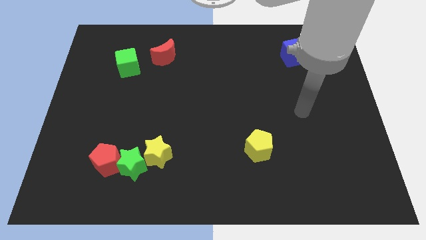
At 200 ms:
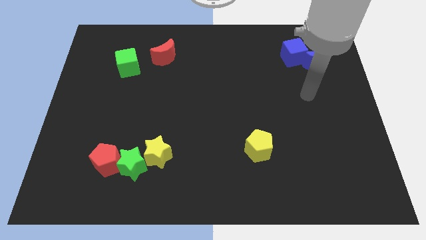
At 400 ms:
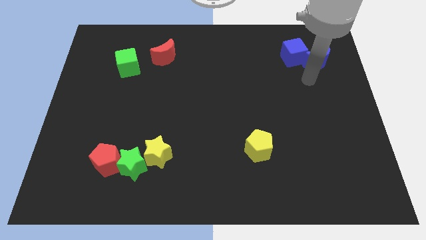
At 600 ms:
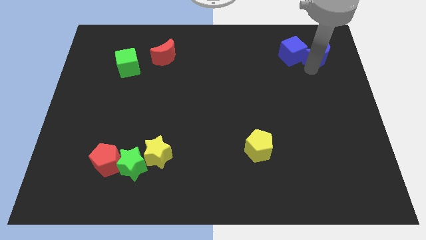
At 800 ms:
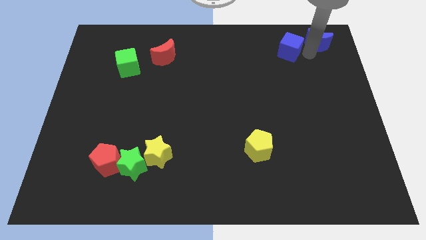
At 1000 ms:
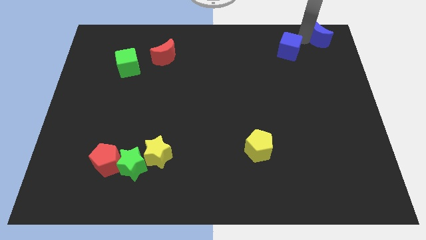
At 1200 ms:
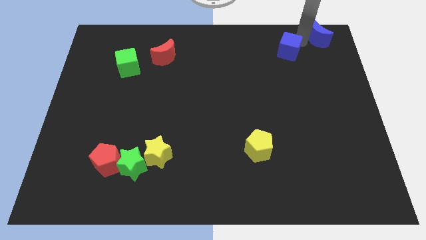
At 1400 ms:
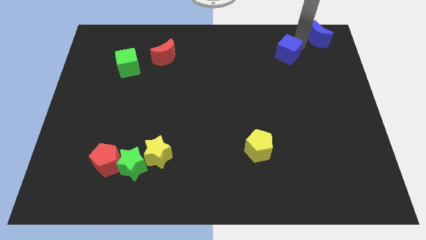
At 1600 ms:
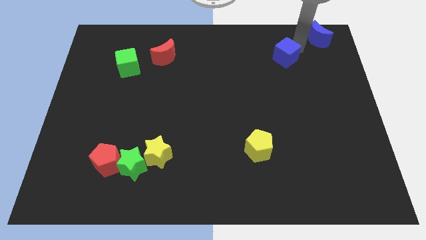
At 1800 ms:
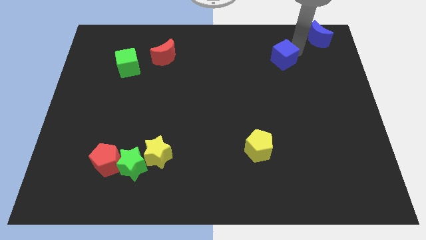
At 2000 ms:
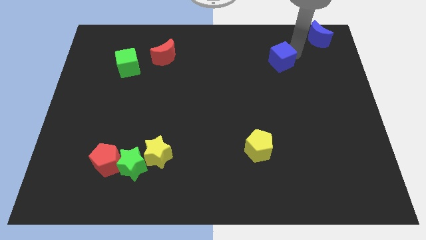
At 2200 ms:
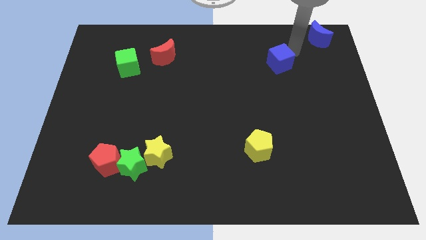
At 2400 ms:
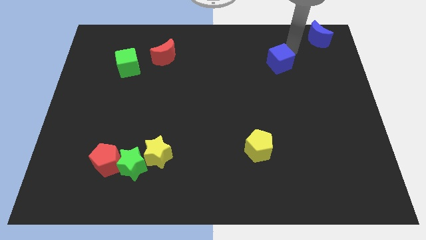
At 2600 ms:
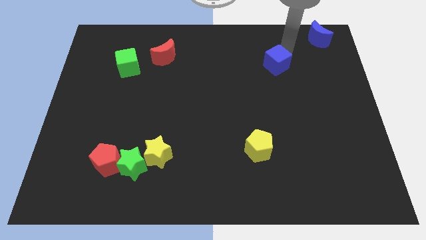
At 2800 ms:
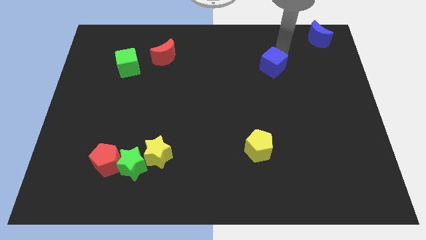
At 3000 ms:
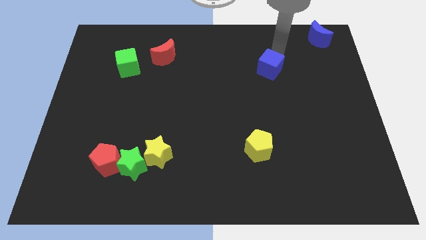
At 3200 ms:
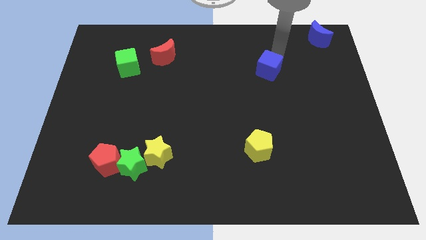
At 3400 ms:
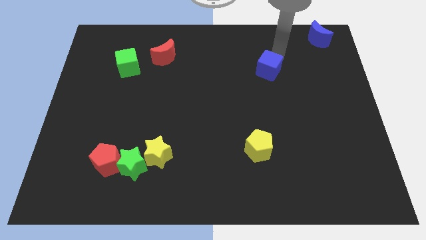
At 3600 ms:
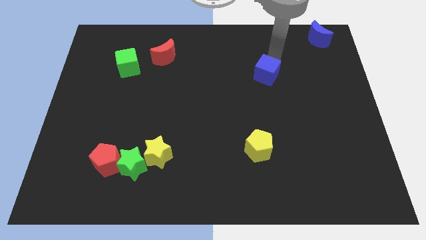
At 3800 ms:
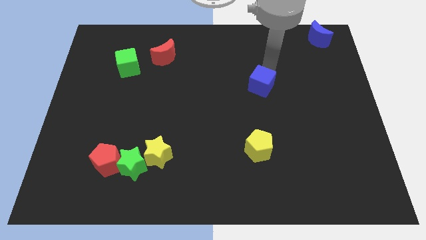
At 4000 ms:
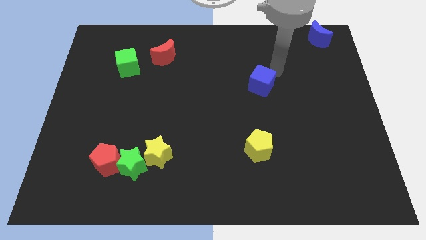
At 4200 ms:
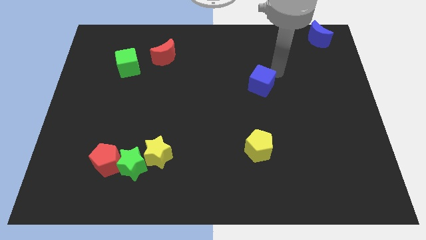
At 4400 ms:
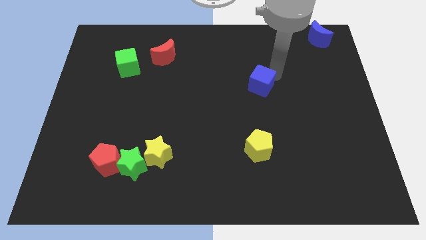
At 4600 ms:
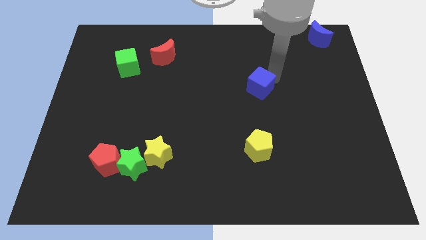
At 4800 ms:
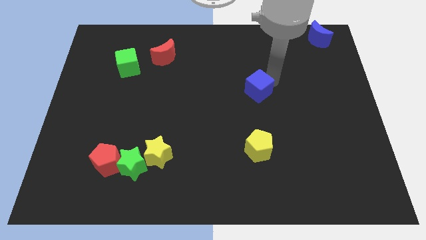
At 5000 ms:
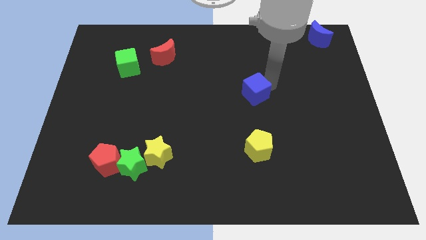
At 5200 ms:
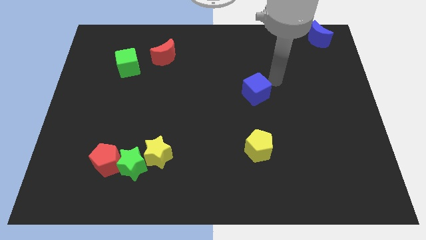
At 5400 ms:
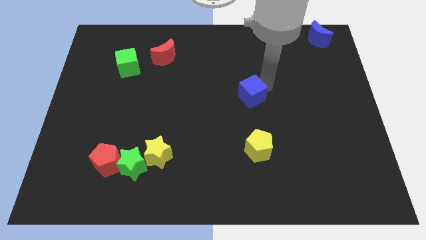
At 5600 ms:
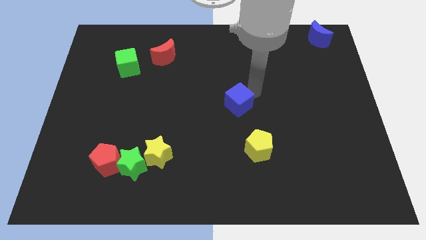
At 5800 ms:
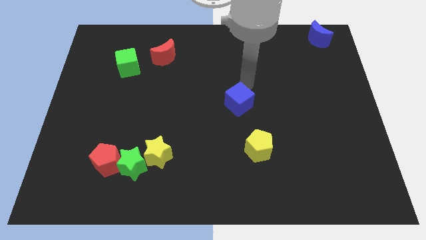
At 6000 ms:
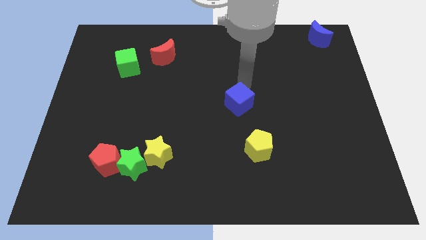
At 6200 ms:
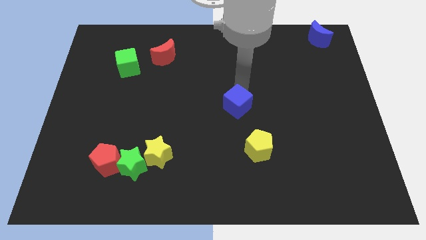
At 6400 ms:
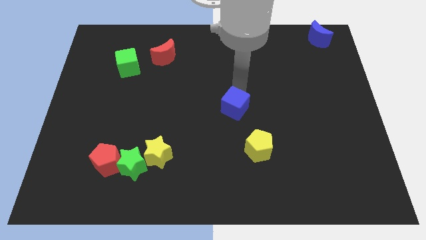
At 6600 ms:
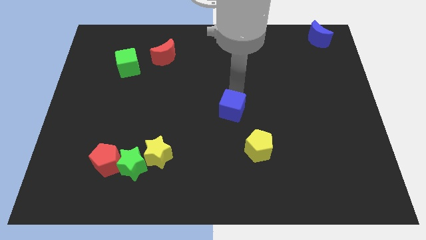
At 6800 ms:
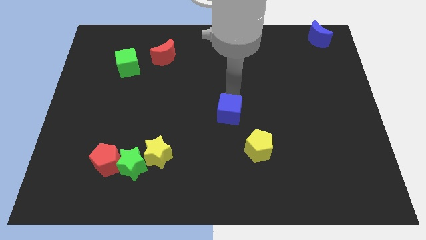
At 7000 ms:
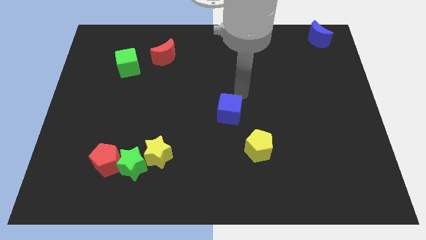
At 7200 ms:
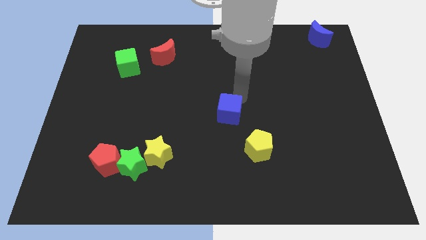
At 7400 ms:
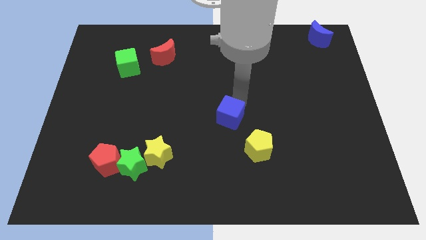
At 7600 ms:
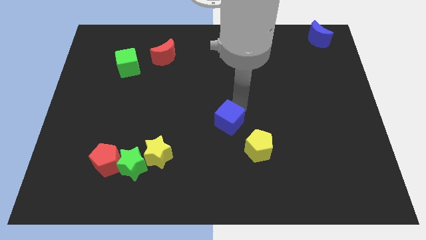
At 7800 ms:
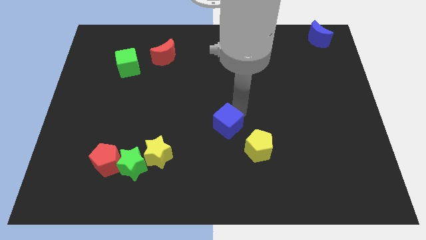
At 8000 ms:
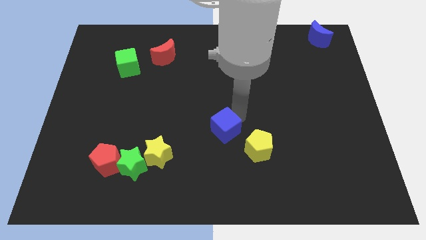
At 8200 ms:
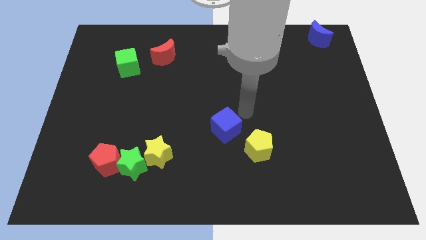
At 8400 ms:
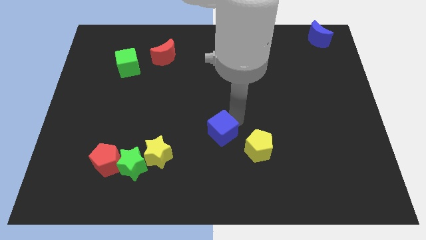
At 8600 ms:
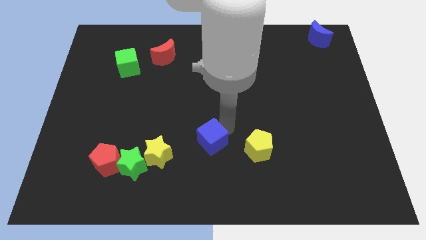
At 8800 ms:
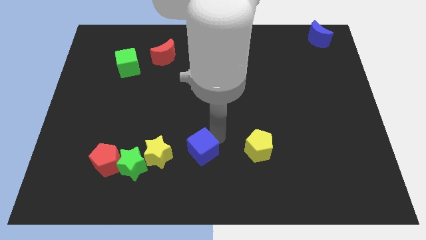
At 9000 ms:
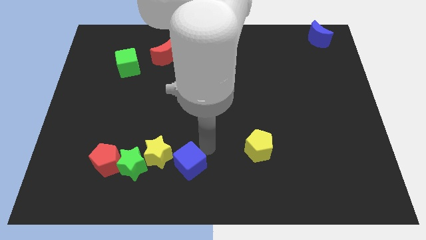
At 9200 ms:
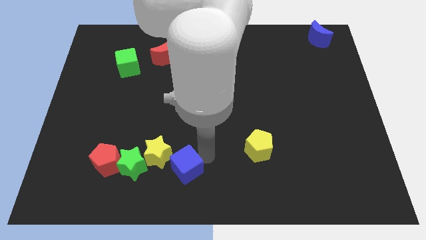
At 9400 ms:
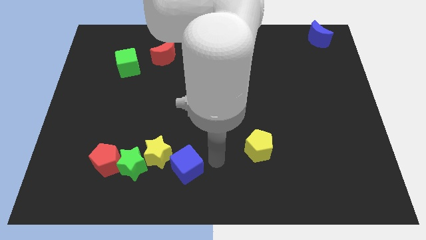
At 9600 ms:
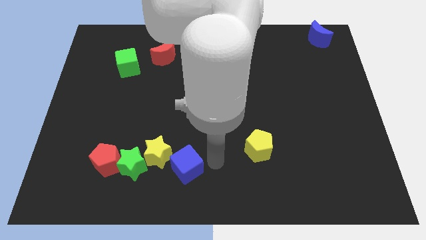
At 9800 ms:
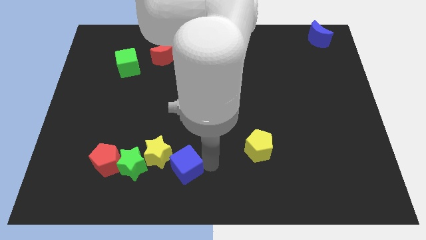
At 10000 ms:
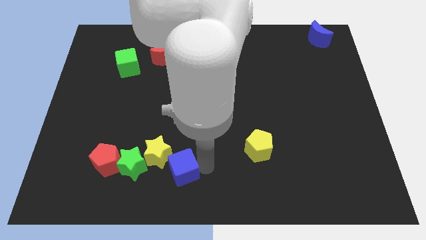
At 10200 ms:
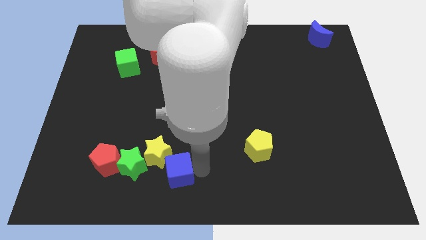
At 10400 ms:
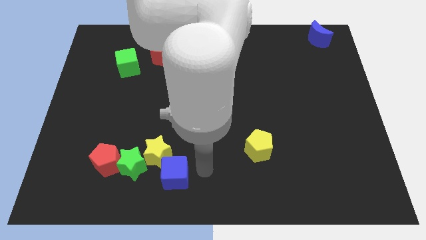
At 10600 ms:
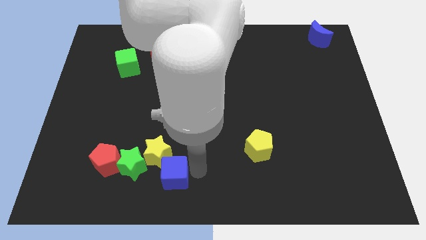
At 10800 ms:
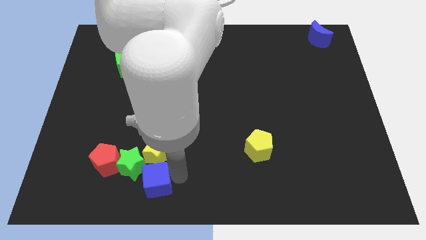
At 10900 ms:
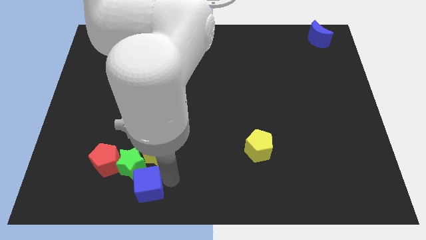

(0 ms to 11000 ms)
move the blue cube diagonally down and to the right of the red pentagon

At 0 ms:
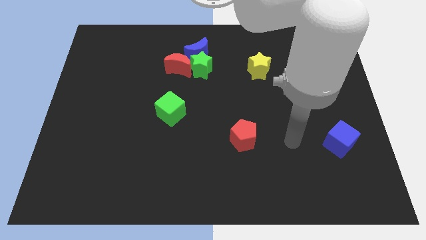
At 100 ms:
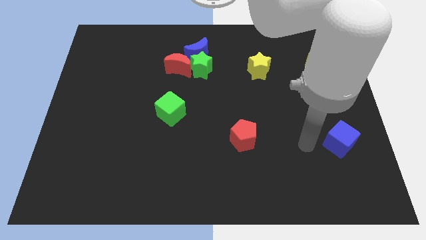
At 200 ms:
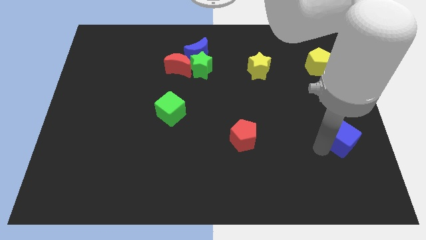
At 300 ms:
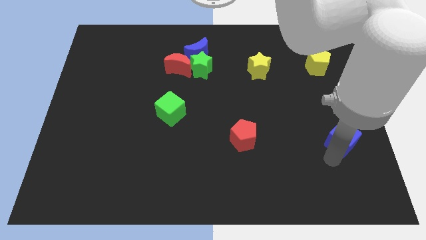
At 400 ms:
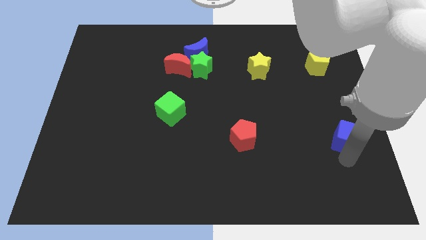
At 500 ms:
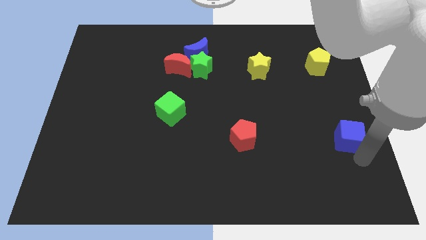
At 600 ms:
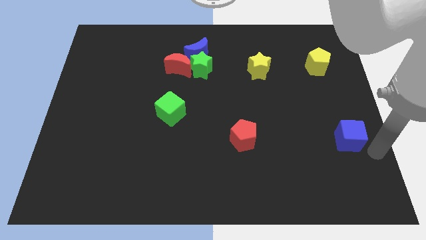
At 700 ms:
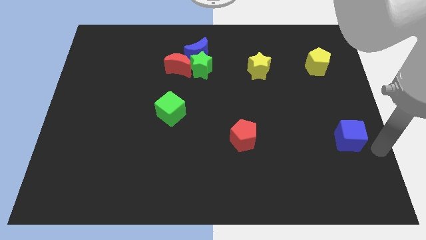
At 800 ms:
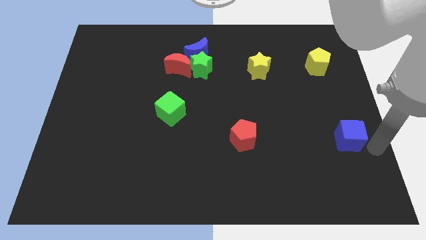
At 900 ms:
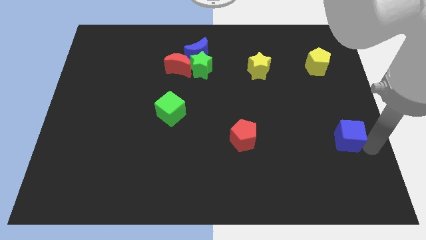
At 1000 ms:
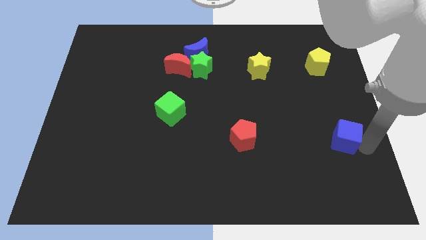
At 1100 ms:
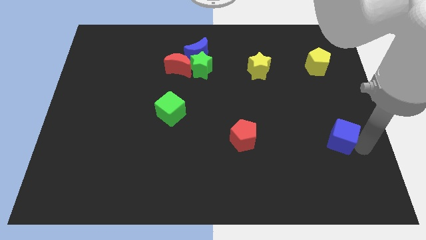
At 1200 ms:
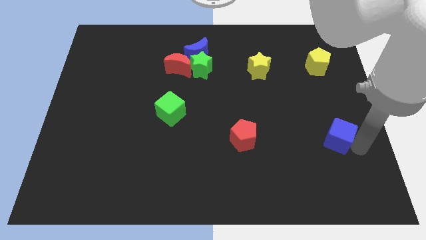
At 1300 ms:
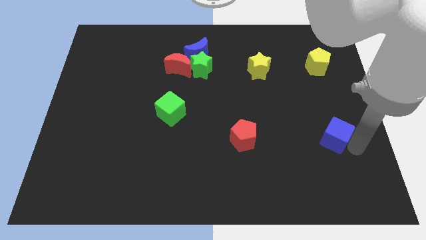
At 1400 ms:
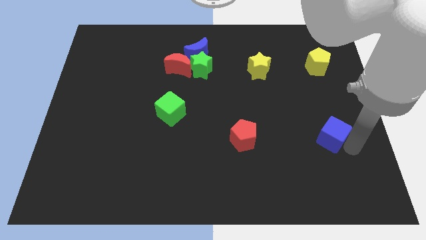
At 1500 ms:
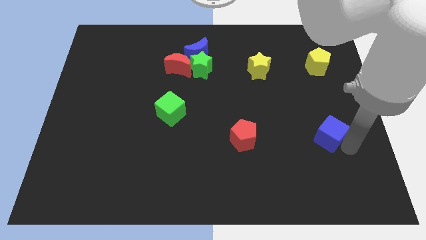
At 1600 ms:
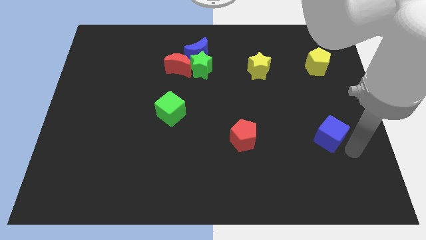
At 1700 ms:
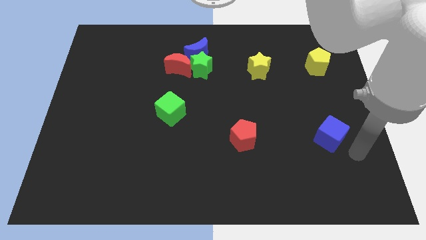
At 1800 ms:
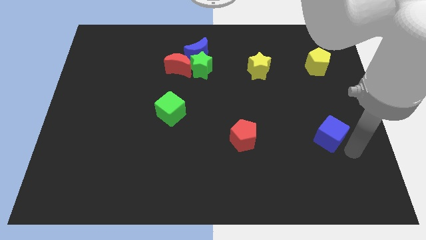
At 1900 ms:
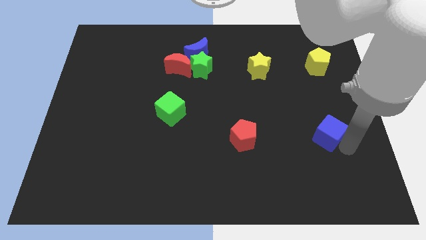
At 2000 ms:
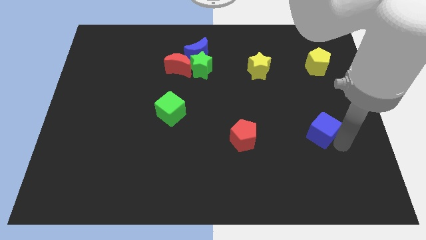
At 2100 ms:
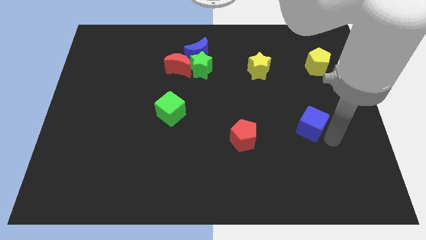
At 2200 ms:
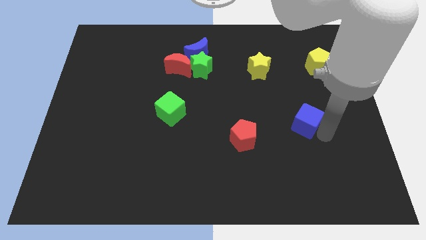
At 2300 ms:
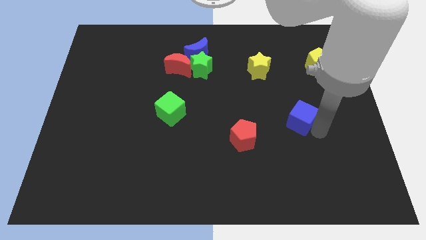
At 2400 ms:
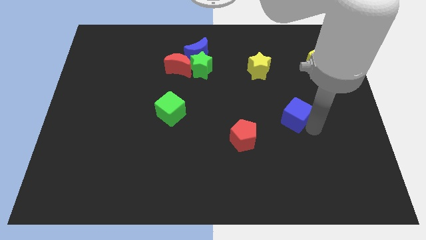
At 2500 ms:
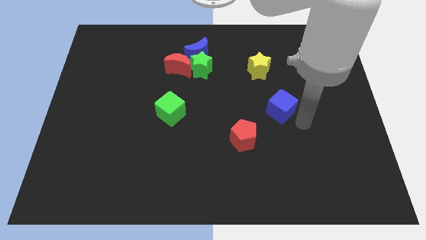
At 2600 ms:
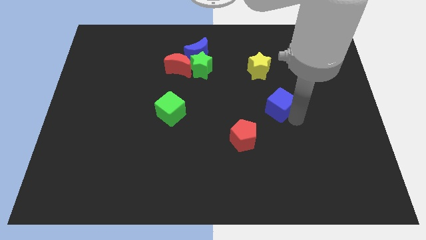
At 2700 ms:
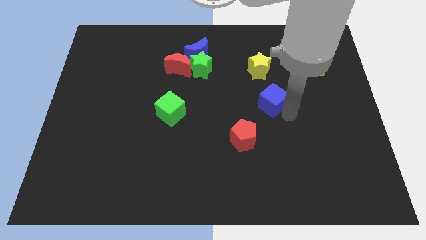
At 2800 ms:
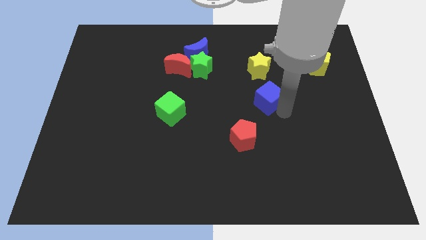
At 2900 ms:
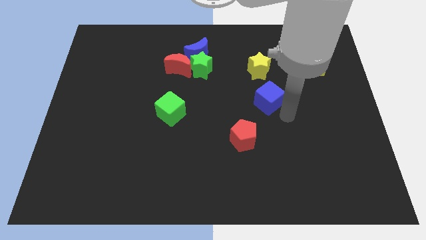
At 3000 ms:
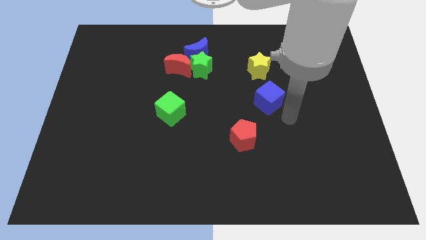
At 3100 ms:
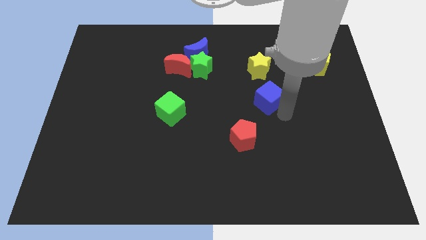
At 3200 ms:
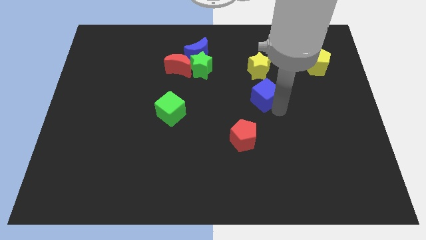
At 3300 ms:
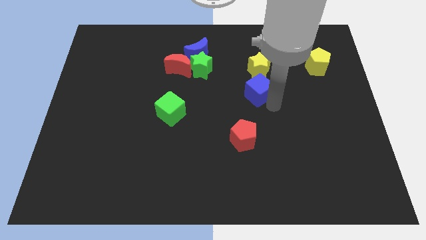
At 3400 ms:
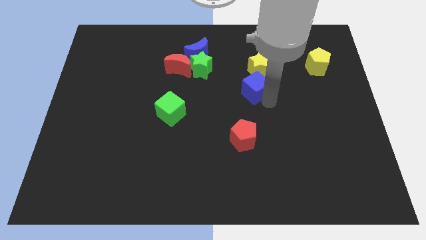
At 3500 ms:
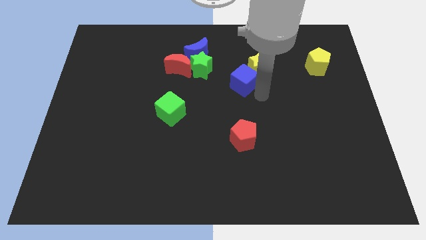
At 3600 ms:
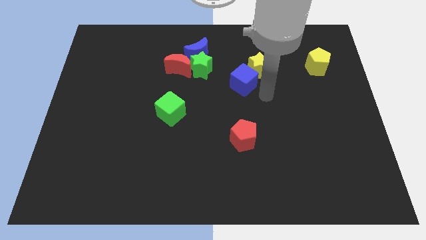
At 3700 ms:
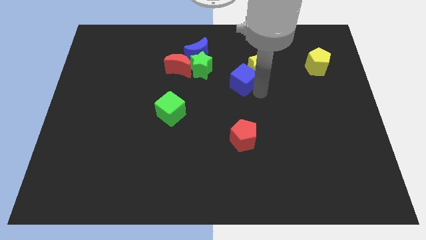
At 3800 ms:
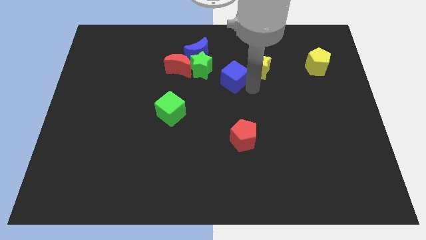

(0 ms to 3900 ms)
move the blue cube to the bottom right side of the blue moon
